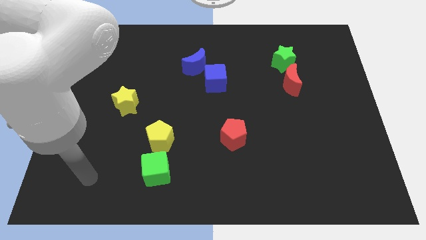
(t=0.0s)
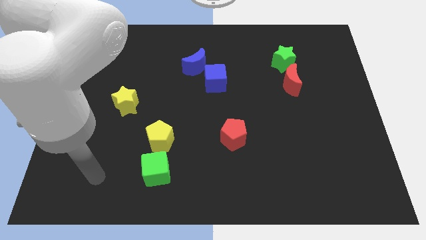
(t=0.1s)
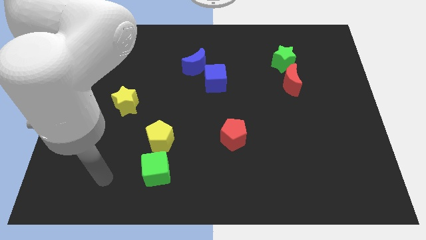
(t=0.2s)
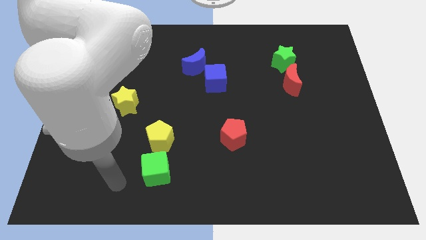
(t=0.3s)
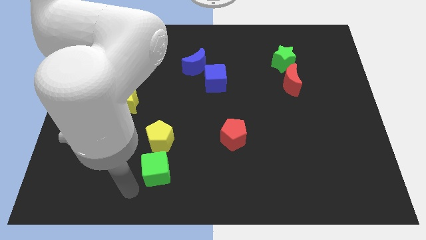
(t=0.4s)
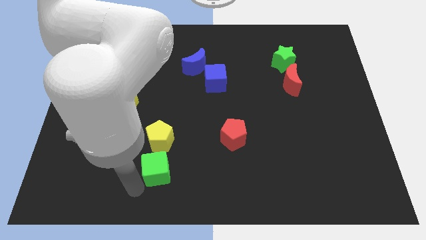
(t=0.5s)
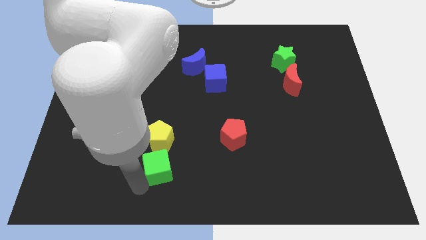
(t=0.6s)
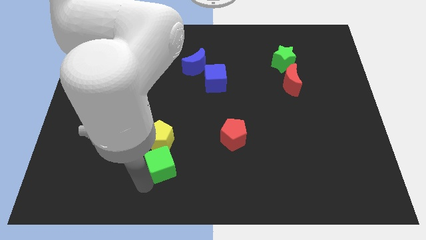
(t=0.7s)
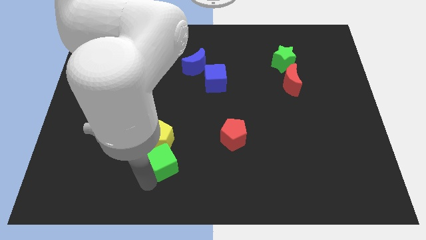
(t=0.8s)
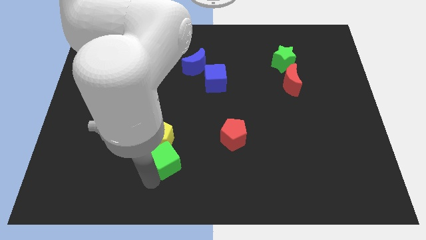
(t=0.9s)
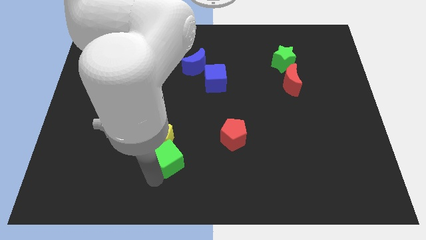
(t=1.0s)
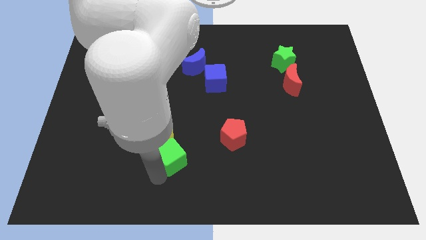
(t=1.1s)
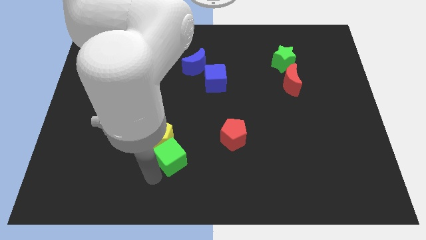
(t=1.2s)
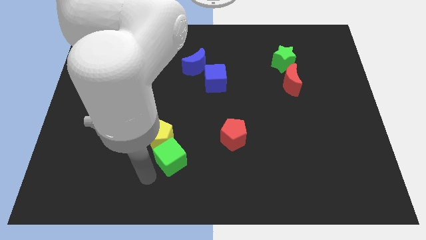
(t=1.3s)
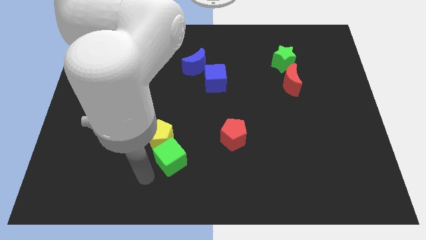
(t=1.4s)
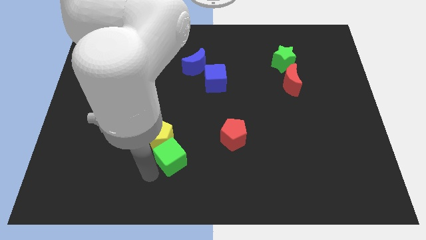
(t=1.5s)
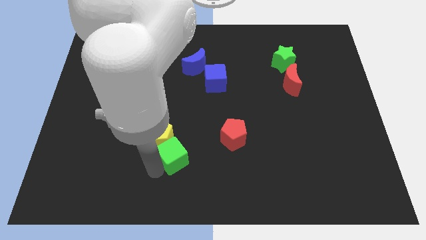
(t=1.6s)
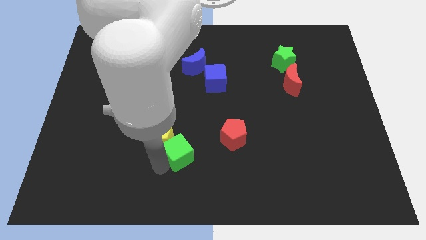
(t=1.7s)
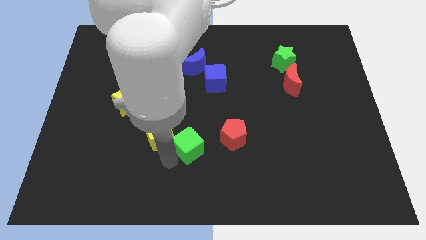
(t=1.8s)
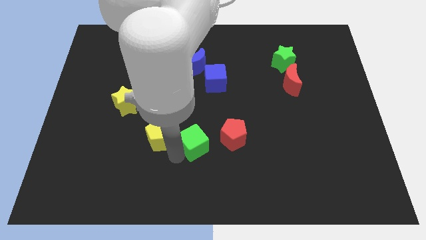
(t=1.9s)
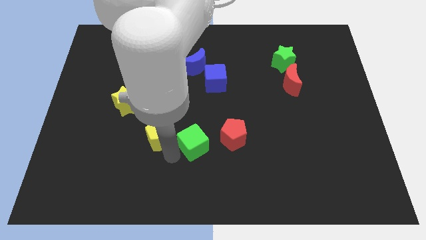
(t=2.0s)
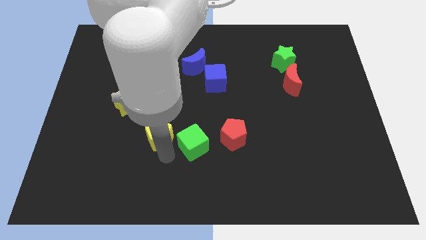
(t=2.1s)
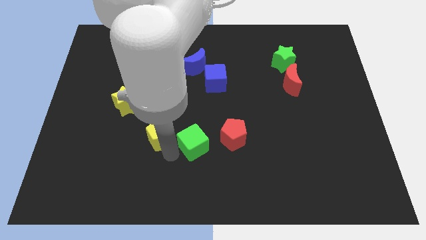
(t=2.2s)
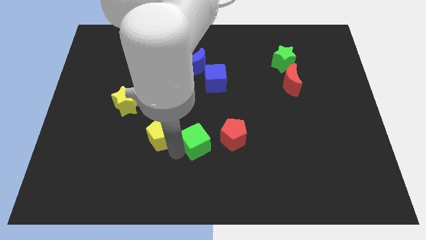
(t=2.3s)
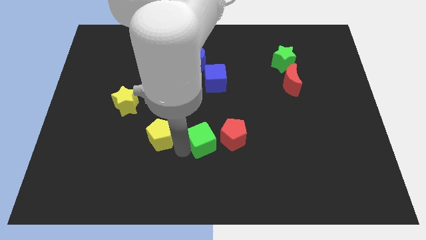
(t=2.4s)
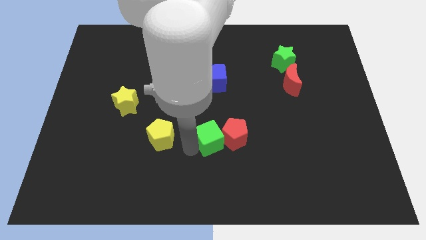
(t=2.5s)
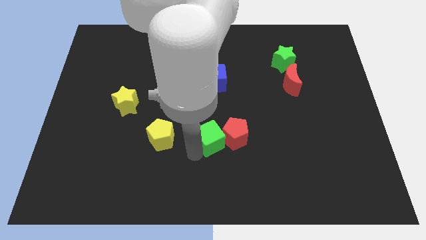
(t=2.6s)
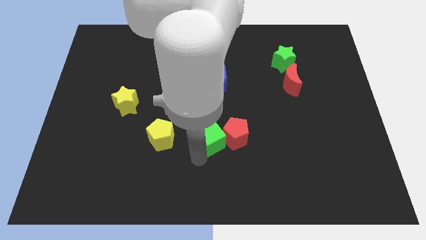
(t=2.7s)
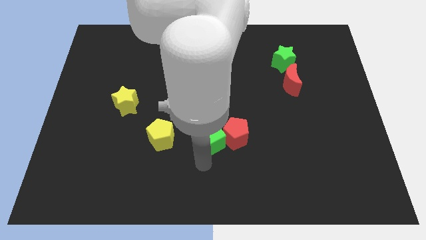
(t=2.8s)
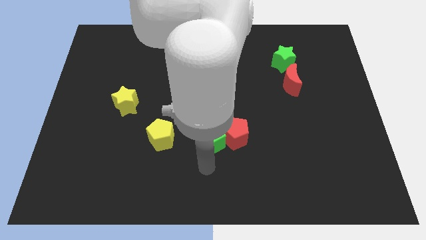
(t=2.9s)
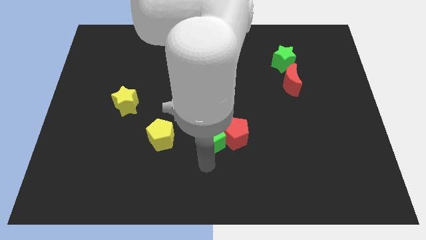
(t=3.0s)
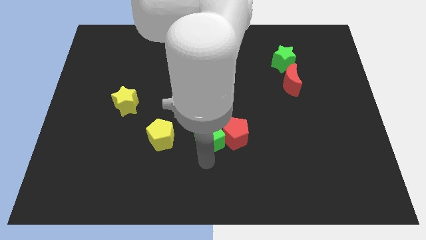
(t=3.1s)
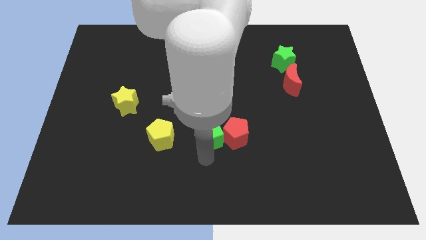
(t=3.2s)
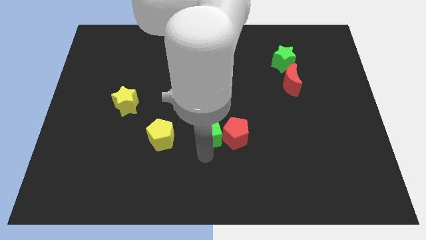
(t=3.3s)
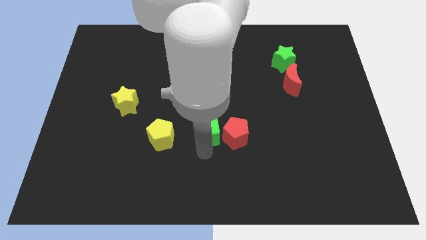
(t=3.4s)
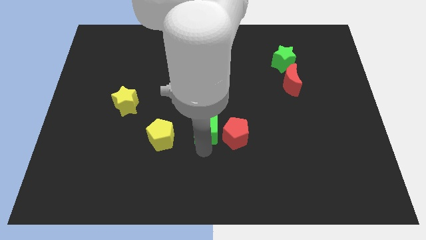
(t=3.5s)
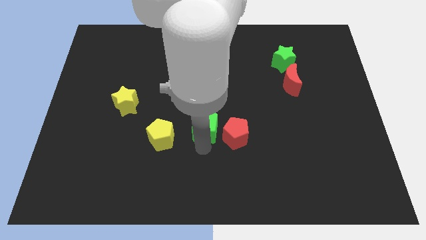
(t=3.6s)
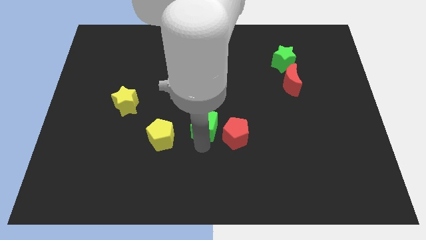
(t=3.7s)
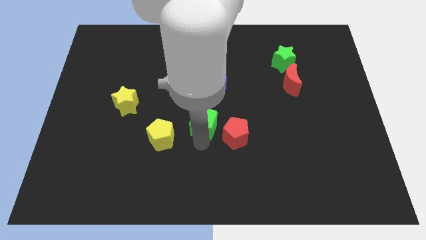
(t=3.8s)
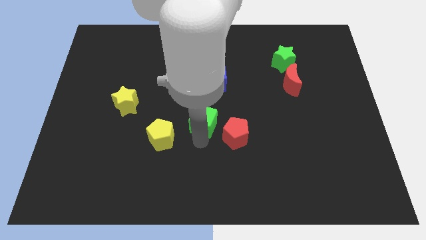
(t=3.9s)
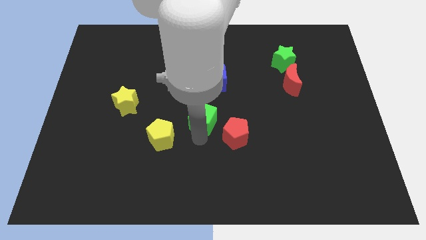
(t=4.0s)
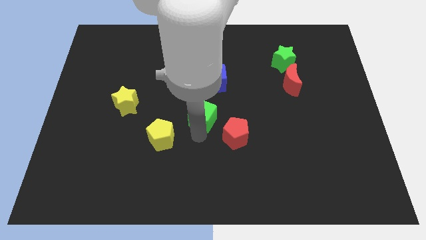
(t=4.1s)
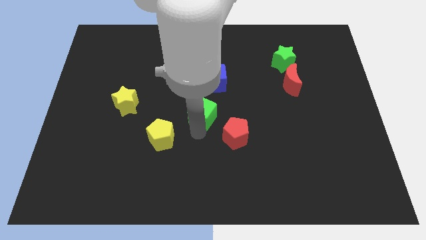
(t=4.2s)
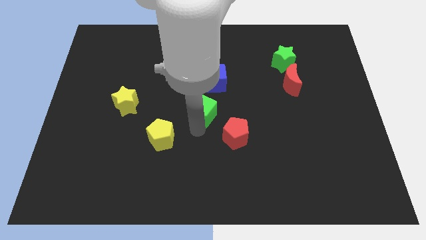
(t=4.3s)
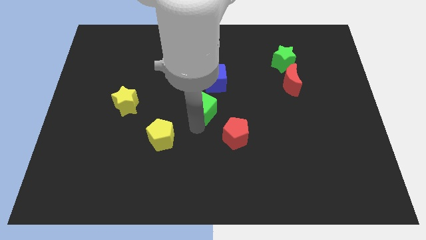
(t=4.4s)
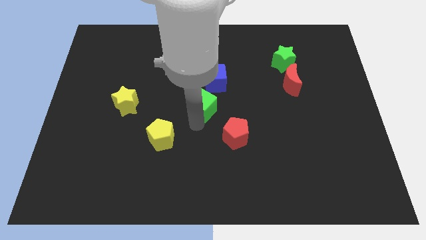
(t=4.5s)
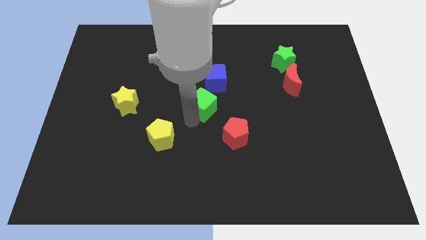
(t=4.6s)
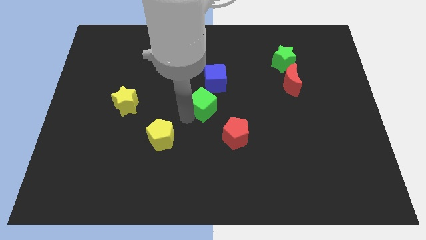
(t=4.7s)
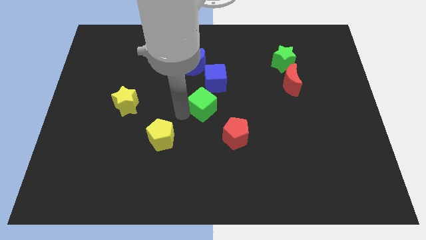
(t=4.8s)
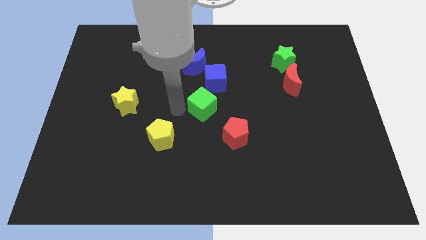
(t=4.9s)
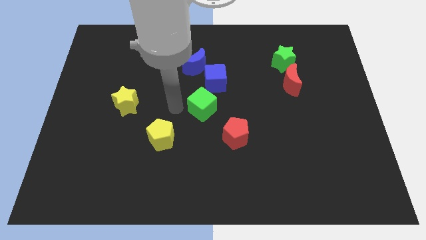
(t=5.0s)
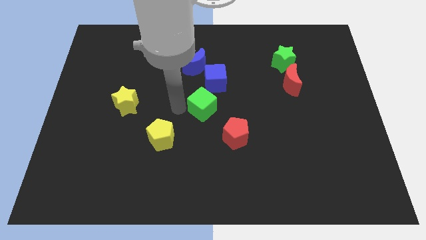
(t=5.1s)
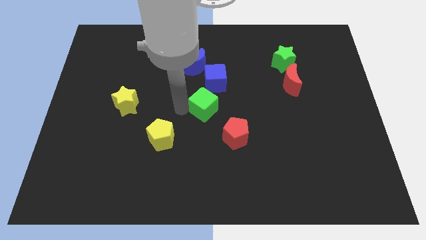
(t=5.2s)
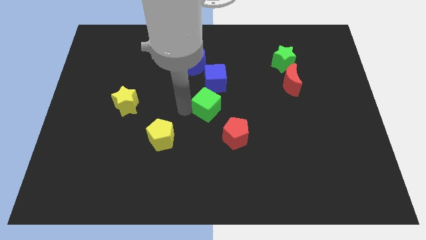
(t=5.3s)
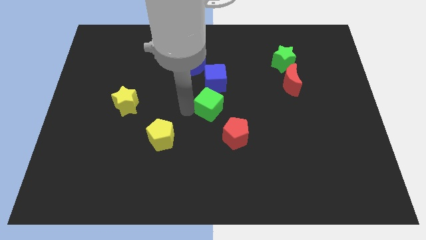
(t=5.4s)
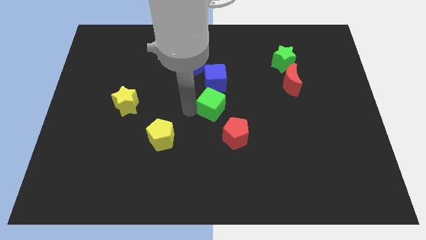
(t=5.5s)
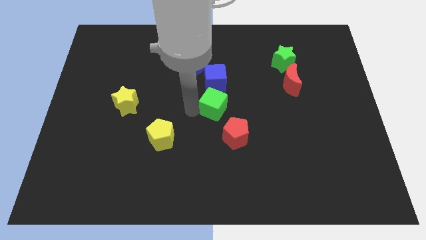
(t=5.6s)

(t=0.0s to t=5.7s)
move the green cube upwards and then to the right

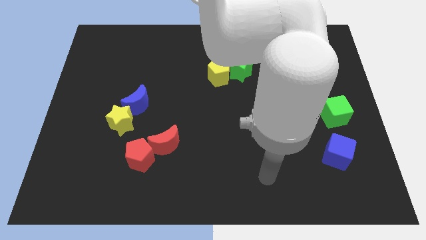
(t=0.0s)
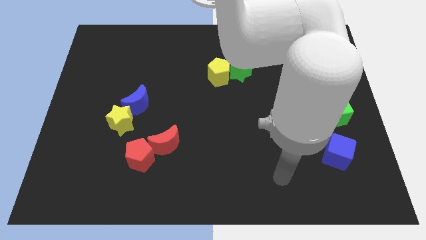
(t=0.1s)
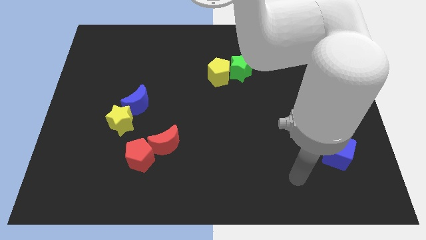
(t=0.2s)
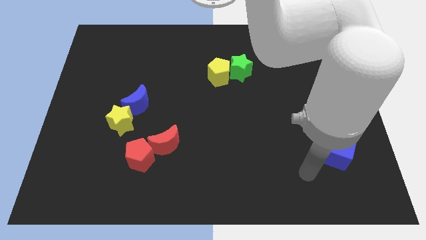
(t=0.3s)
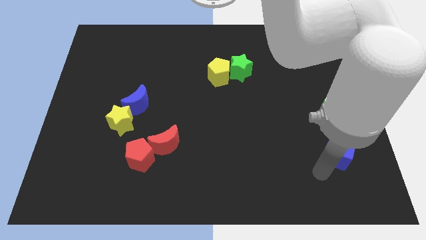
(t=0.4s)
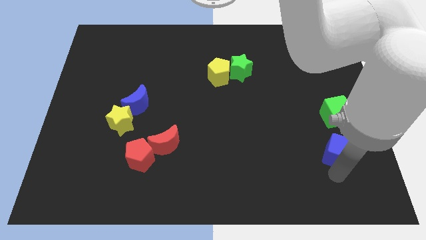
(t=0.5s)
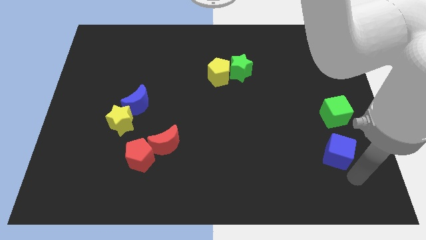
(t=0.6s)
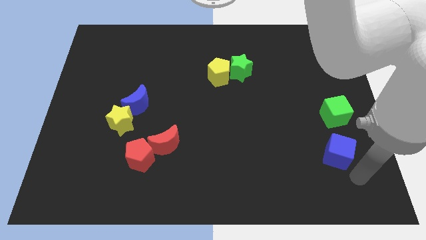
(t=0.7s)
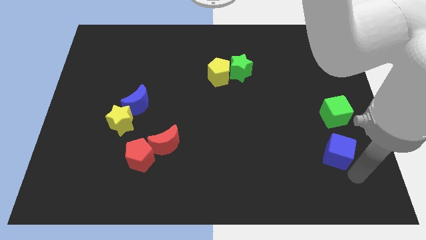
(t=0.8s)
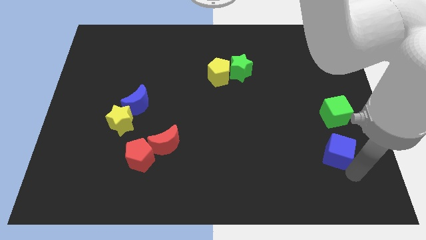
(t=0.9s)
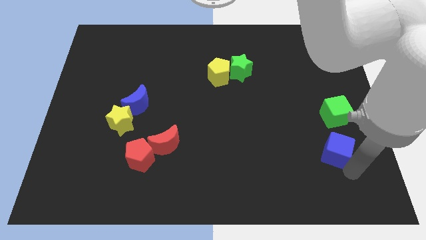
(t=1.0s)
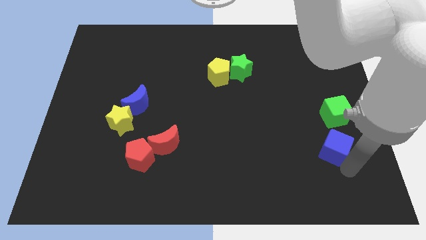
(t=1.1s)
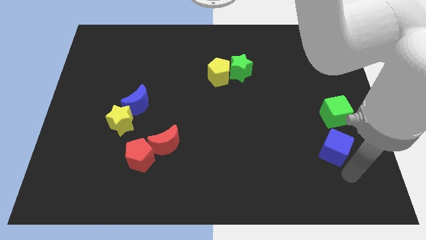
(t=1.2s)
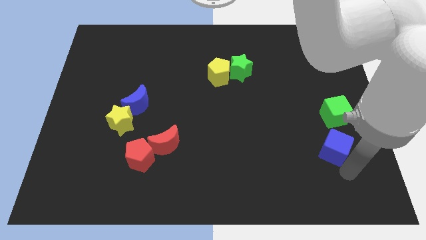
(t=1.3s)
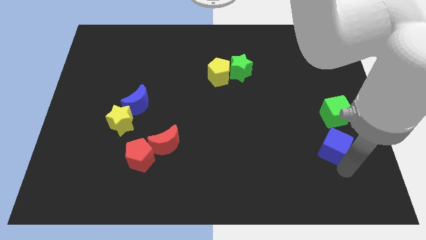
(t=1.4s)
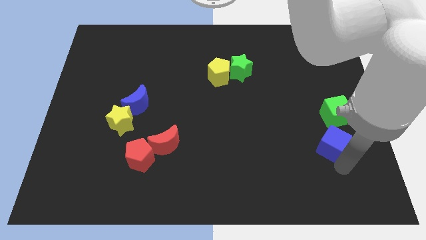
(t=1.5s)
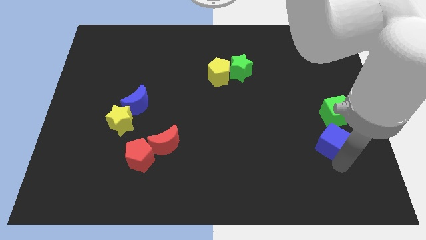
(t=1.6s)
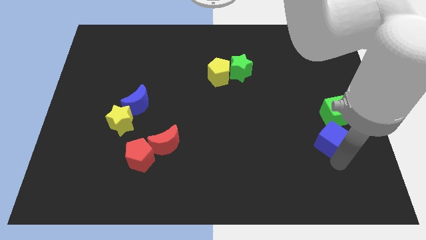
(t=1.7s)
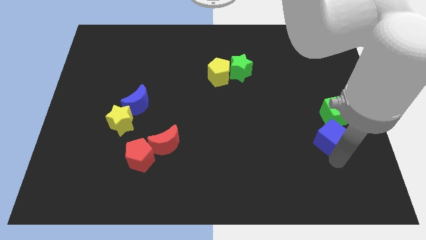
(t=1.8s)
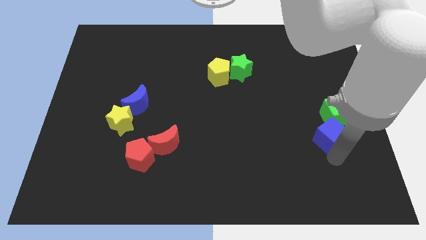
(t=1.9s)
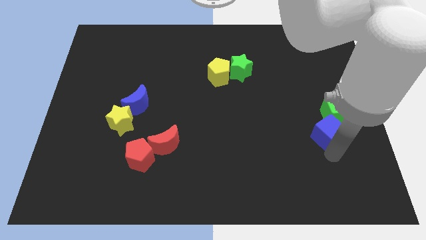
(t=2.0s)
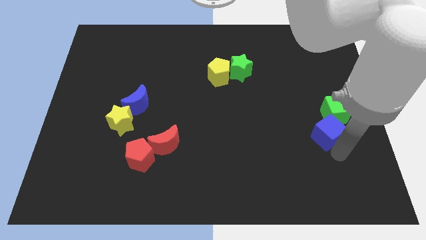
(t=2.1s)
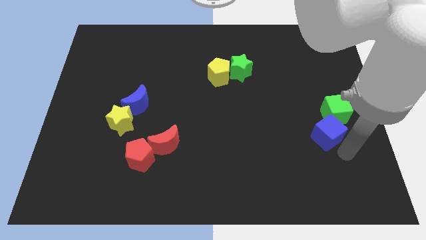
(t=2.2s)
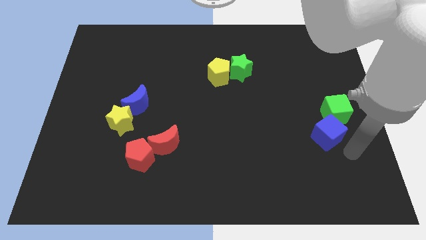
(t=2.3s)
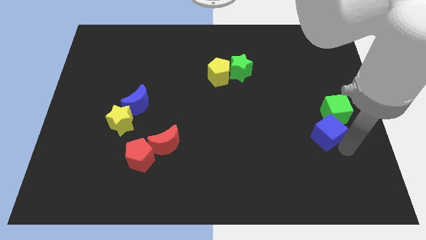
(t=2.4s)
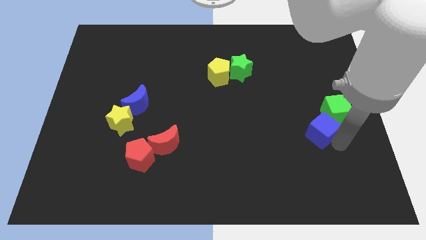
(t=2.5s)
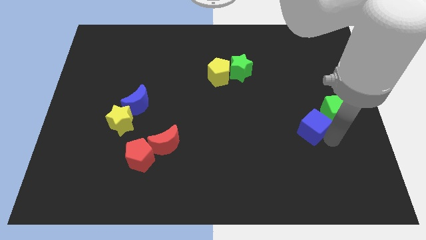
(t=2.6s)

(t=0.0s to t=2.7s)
slide the blue cube a little up and then to the left
